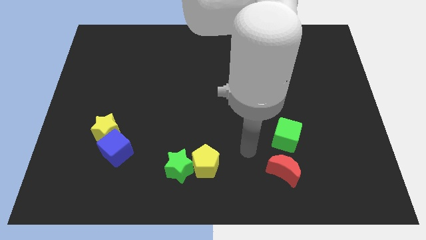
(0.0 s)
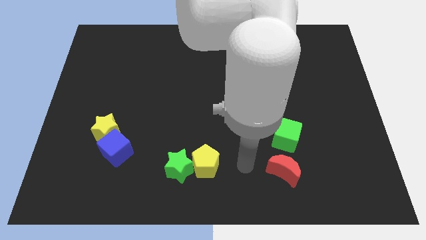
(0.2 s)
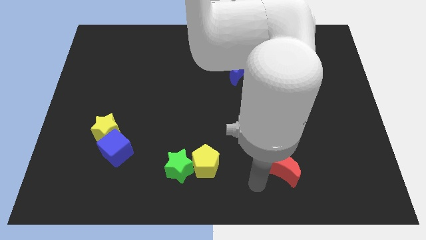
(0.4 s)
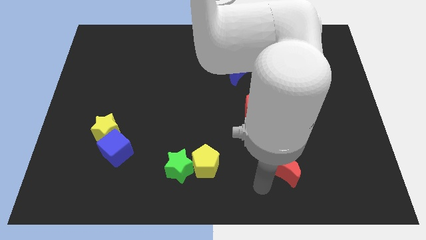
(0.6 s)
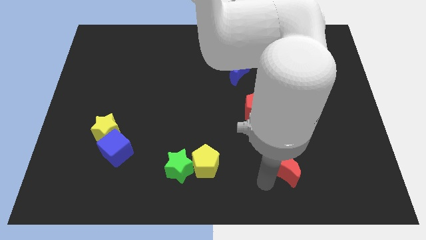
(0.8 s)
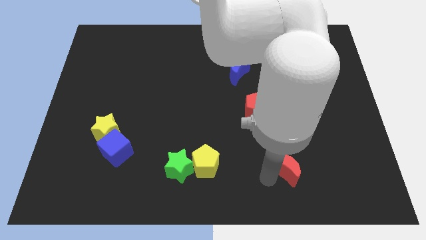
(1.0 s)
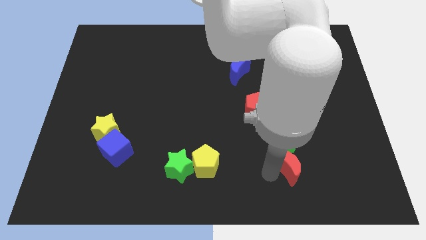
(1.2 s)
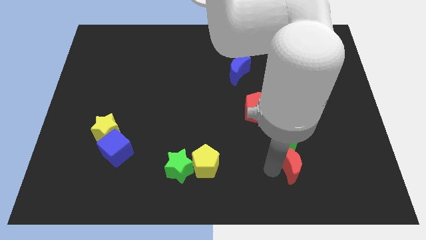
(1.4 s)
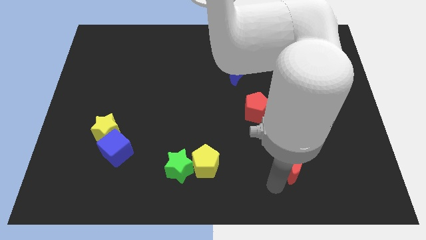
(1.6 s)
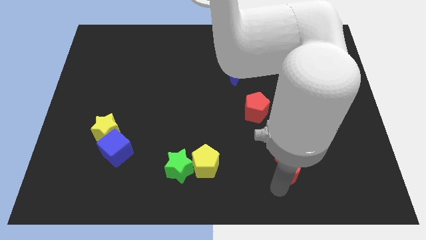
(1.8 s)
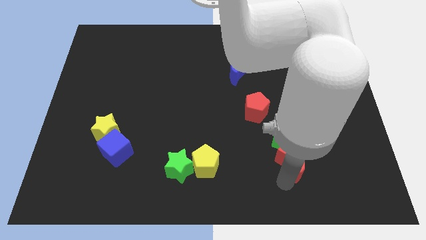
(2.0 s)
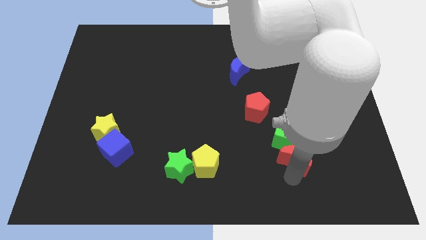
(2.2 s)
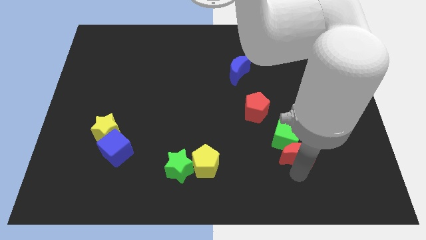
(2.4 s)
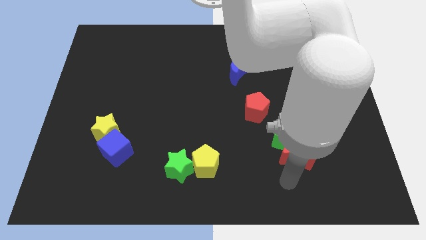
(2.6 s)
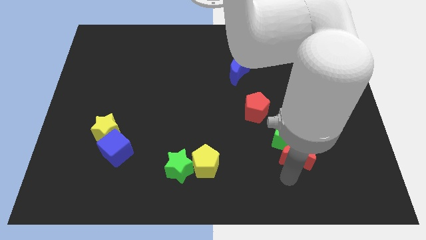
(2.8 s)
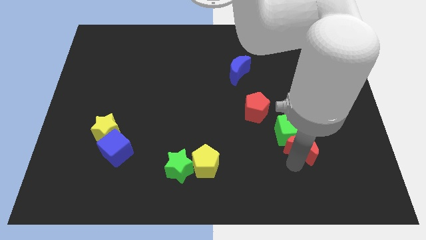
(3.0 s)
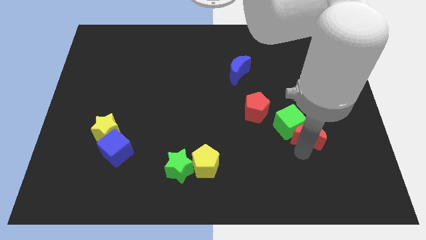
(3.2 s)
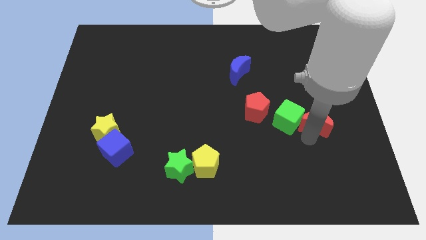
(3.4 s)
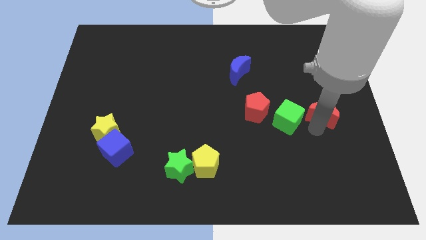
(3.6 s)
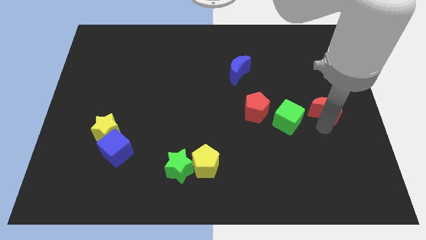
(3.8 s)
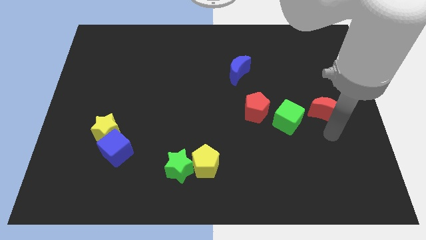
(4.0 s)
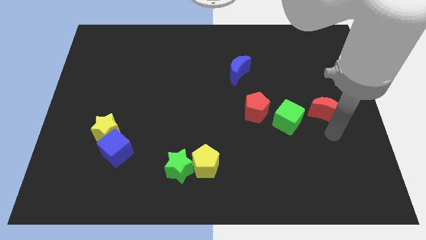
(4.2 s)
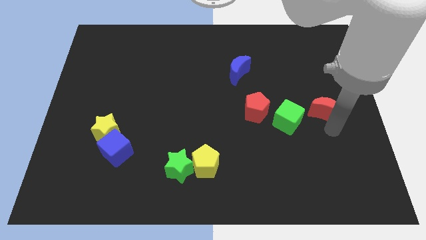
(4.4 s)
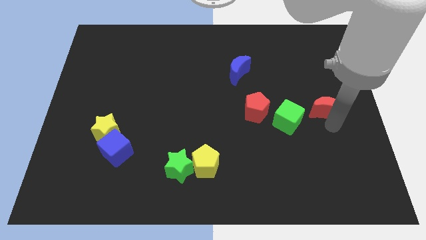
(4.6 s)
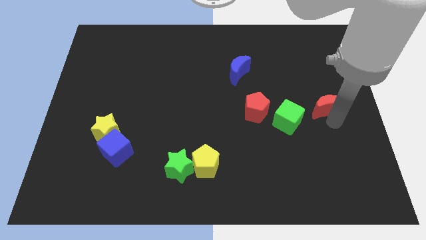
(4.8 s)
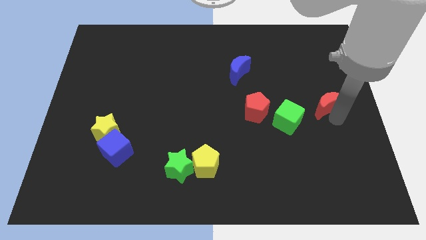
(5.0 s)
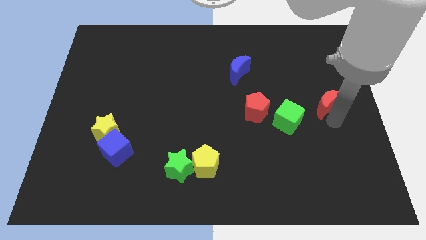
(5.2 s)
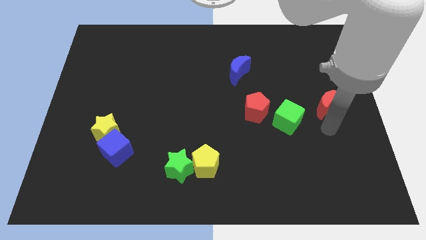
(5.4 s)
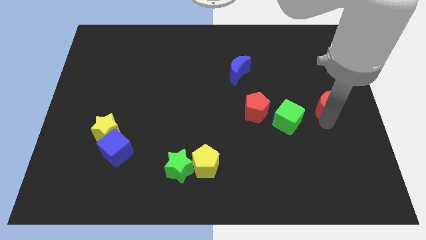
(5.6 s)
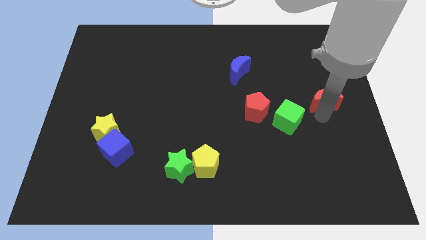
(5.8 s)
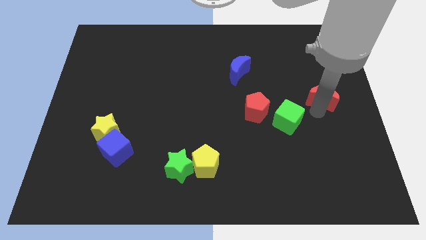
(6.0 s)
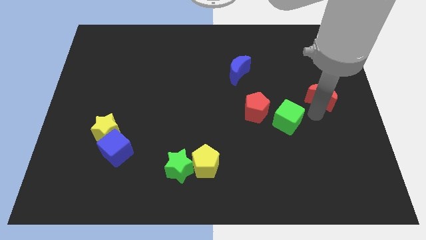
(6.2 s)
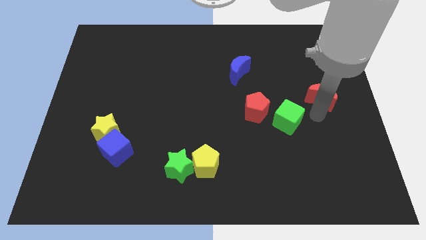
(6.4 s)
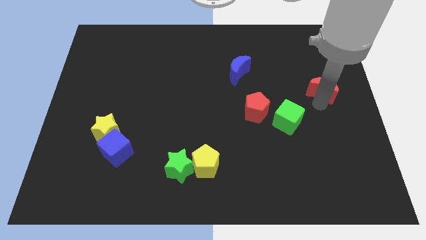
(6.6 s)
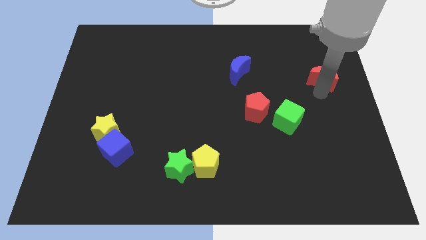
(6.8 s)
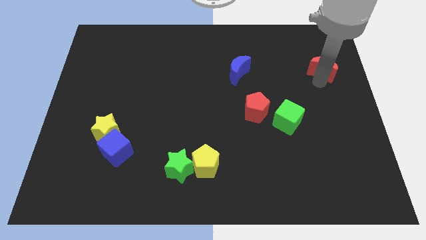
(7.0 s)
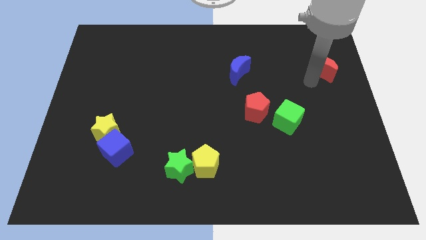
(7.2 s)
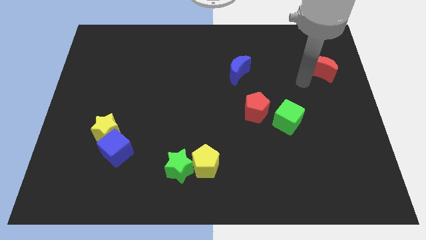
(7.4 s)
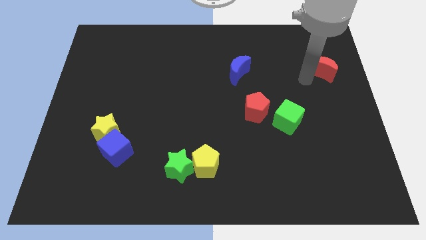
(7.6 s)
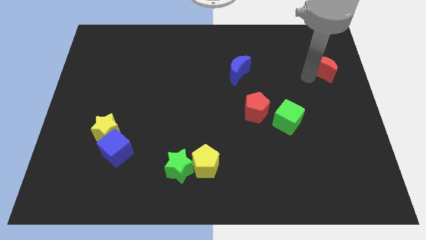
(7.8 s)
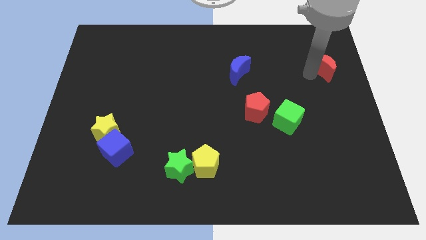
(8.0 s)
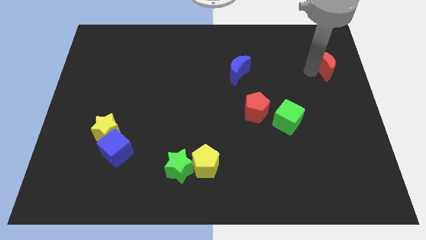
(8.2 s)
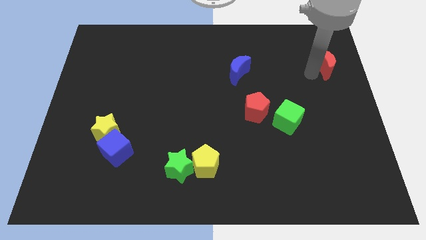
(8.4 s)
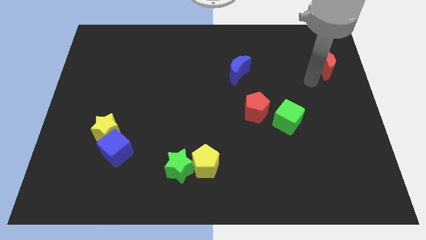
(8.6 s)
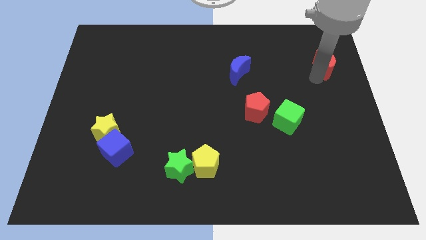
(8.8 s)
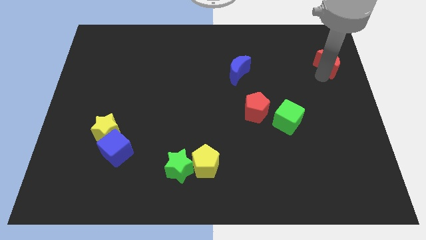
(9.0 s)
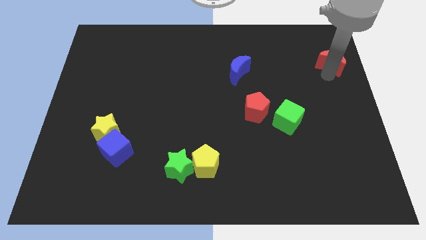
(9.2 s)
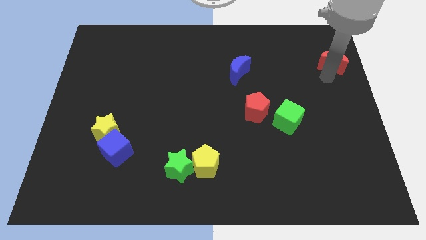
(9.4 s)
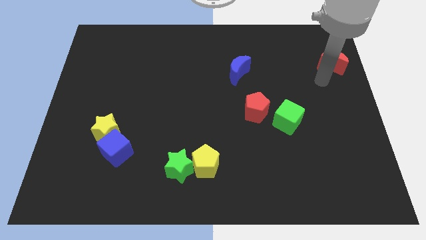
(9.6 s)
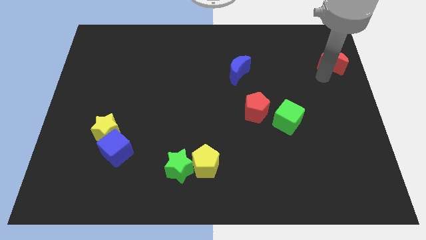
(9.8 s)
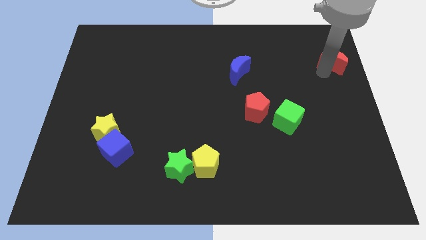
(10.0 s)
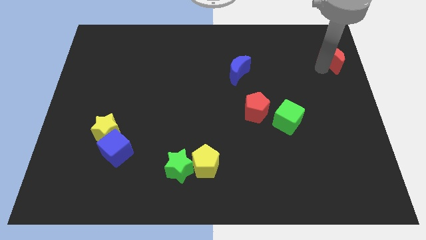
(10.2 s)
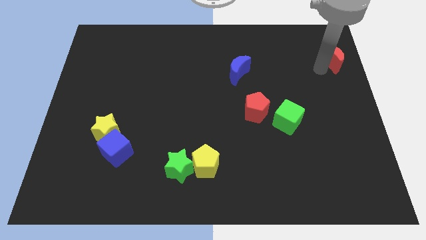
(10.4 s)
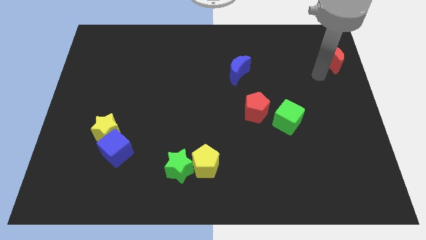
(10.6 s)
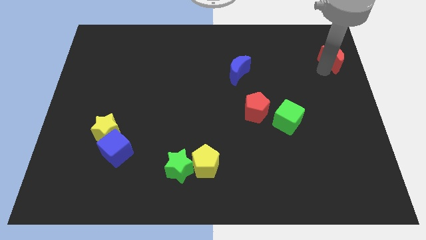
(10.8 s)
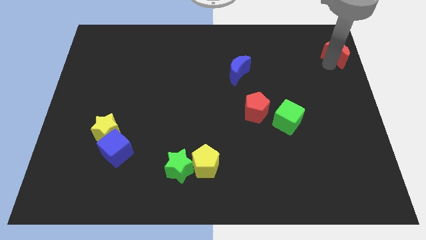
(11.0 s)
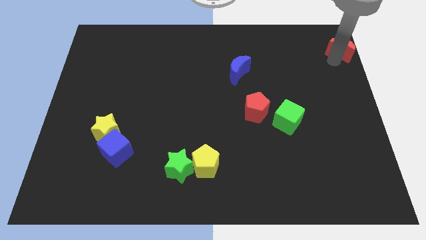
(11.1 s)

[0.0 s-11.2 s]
move the red moon to the top right of the board

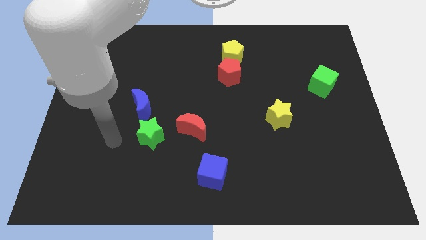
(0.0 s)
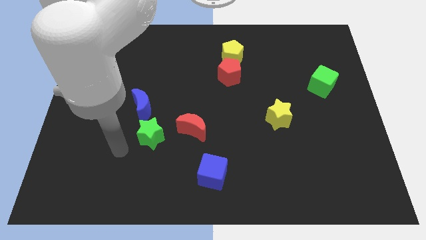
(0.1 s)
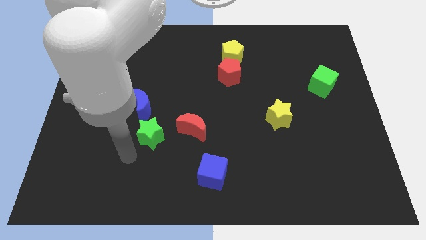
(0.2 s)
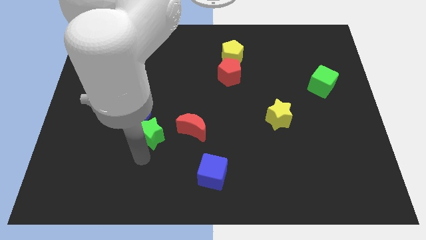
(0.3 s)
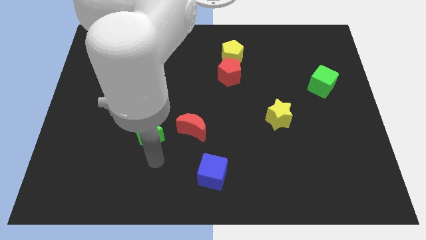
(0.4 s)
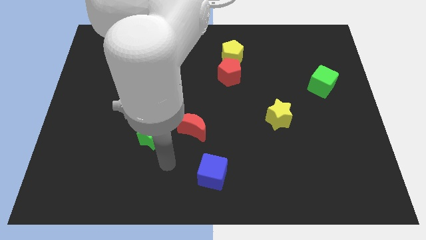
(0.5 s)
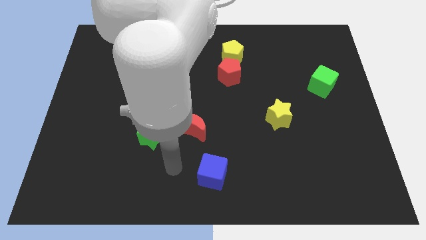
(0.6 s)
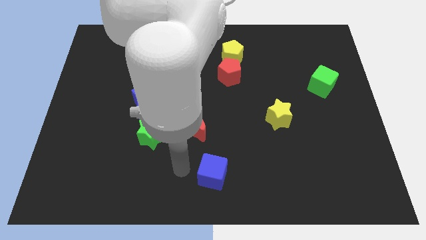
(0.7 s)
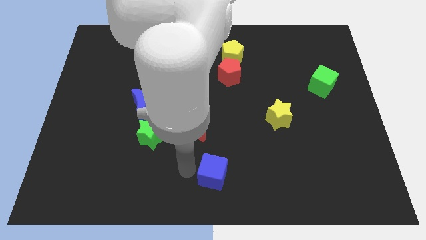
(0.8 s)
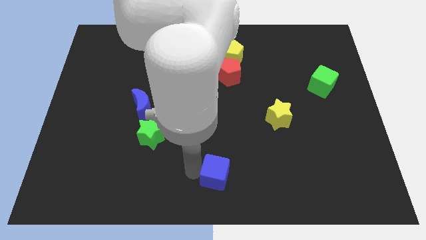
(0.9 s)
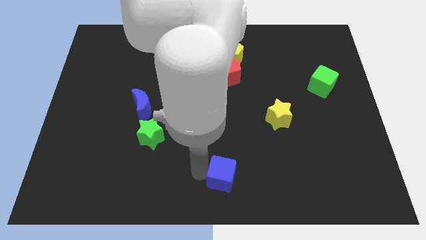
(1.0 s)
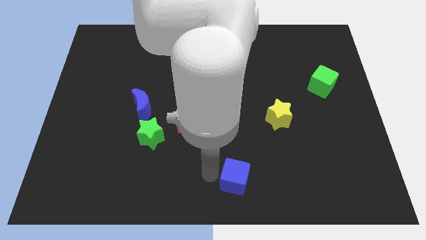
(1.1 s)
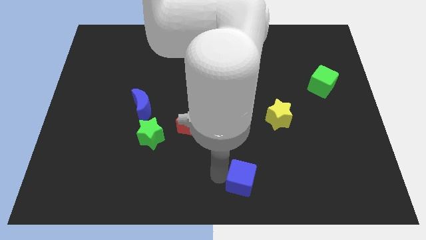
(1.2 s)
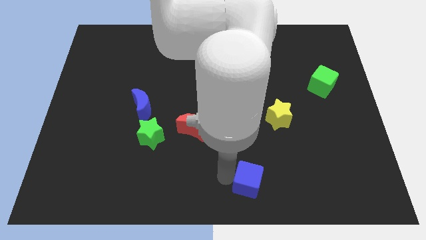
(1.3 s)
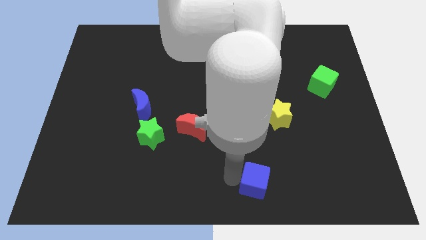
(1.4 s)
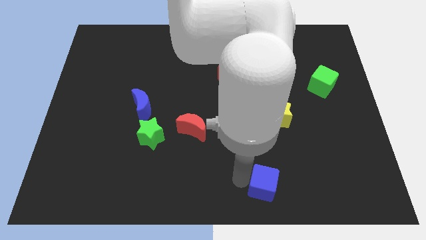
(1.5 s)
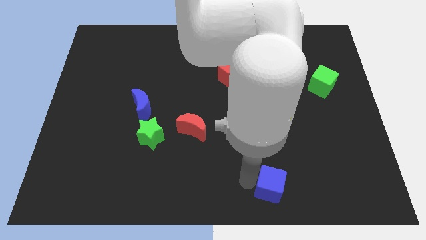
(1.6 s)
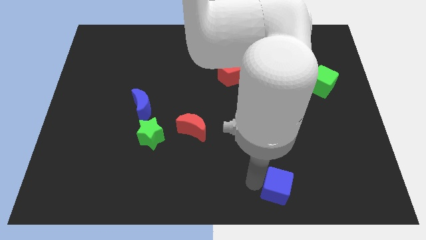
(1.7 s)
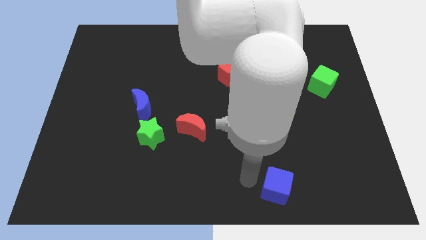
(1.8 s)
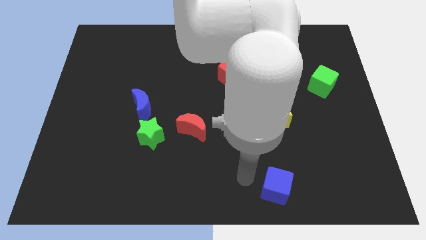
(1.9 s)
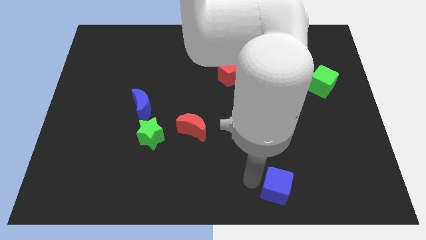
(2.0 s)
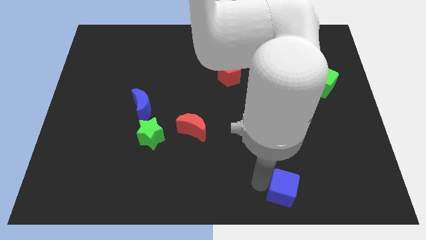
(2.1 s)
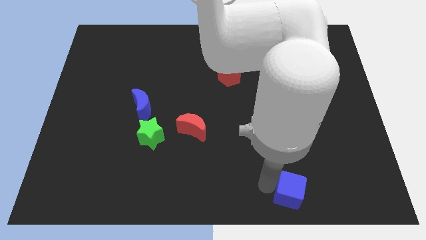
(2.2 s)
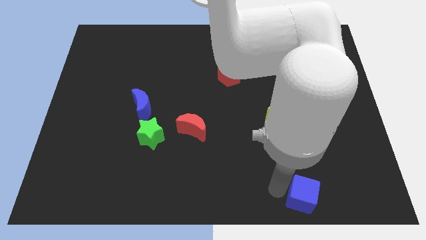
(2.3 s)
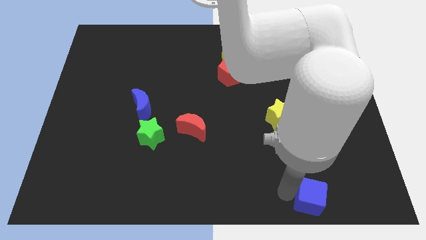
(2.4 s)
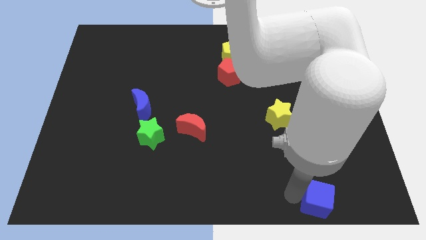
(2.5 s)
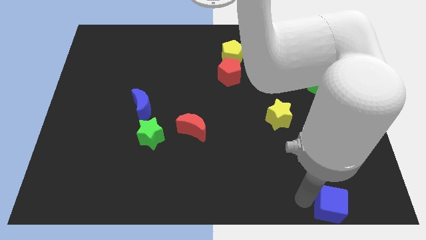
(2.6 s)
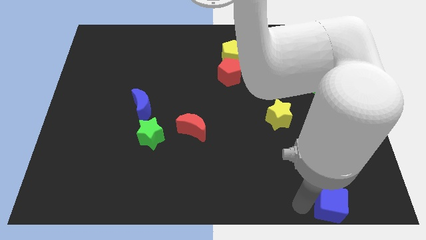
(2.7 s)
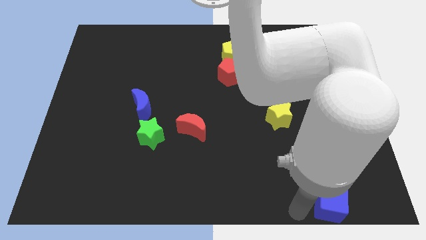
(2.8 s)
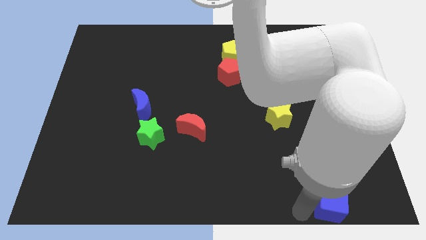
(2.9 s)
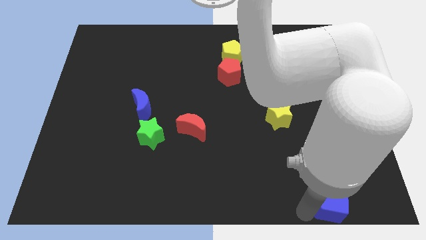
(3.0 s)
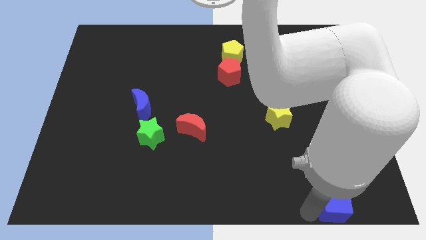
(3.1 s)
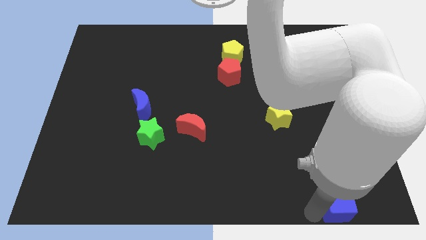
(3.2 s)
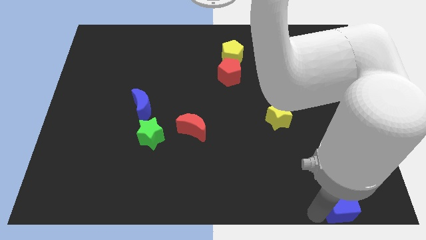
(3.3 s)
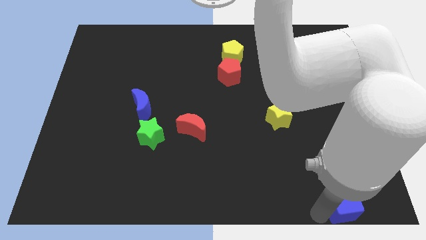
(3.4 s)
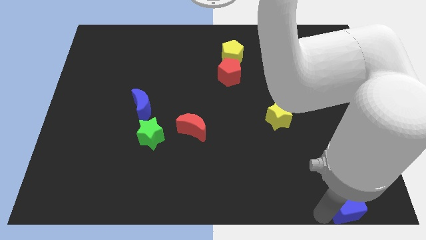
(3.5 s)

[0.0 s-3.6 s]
slide the blue cube to the bottom right of the board
